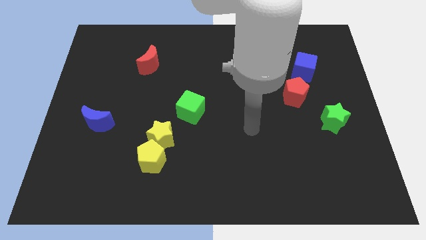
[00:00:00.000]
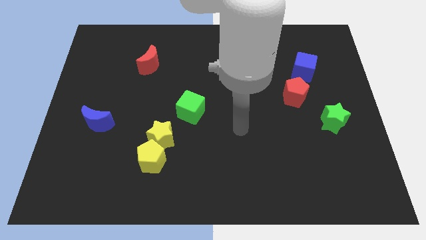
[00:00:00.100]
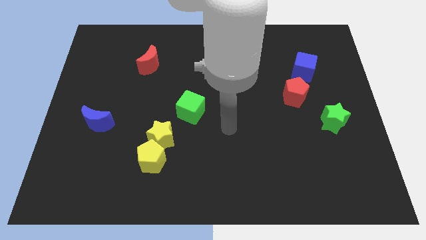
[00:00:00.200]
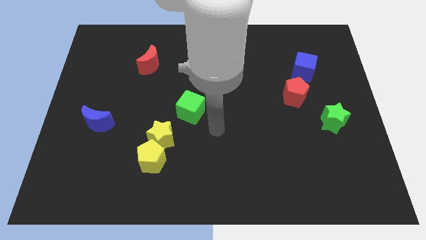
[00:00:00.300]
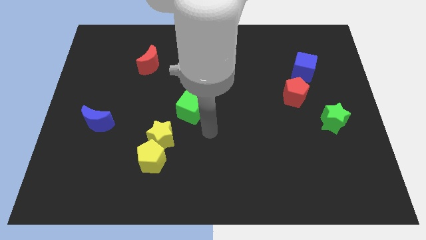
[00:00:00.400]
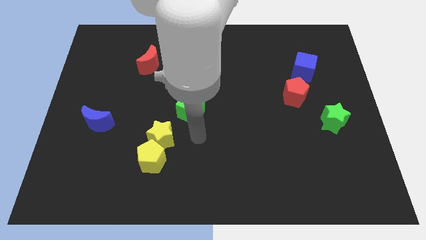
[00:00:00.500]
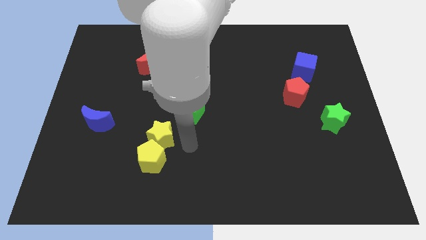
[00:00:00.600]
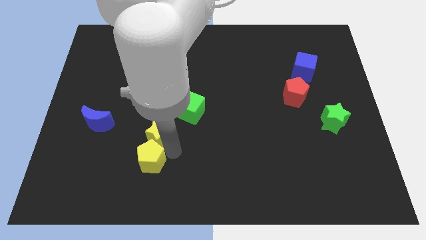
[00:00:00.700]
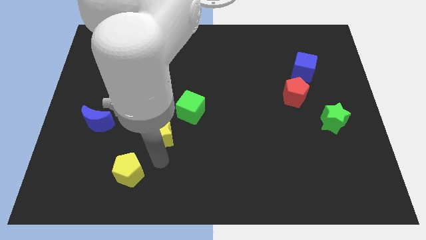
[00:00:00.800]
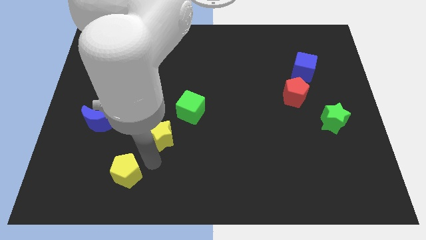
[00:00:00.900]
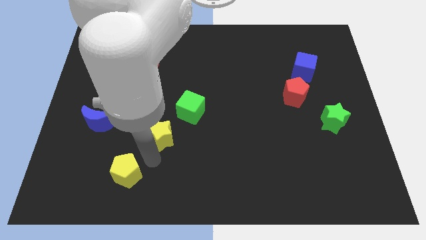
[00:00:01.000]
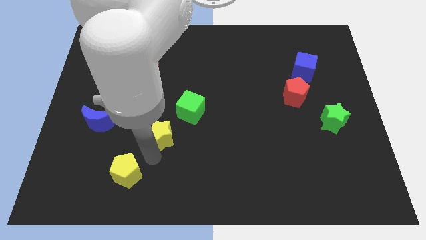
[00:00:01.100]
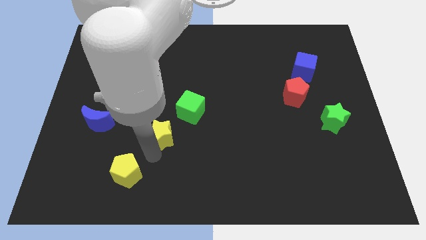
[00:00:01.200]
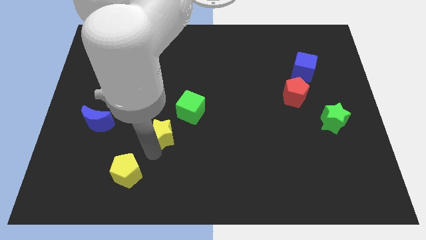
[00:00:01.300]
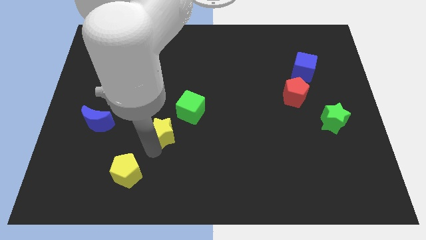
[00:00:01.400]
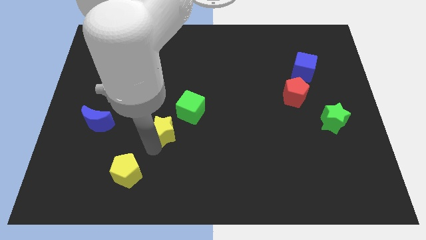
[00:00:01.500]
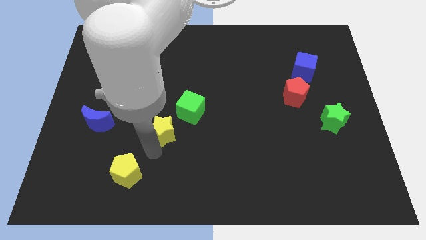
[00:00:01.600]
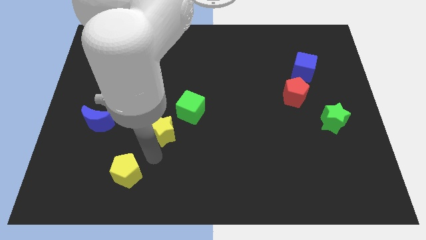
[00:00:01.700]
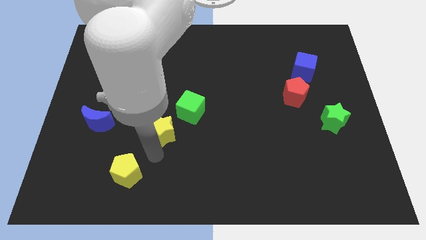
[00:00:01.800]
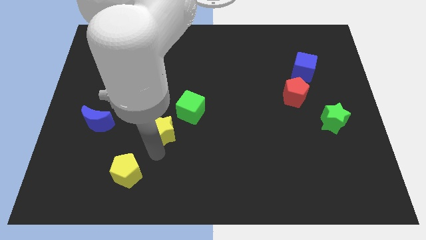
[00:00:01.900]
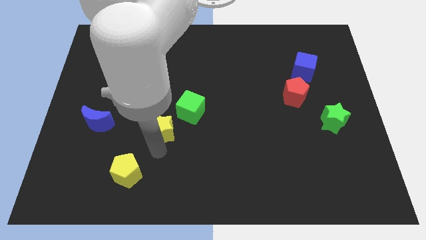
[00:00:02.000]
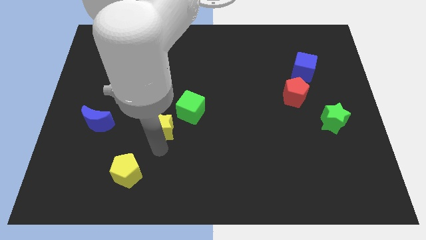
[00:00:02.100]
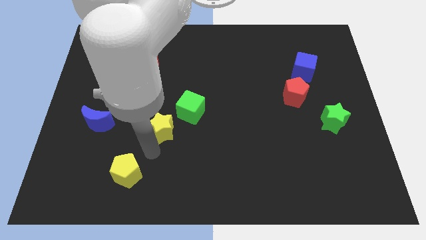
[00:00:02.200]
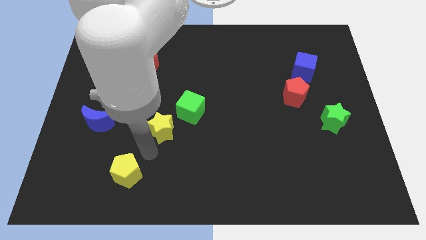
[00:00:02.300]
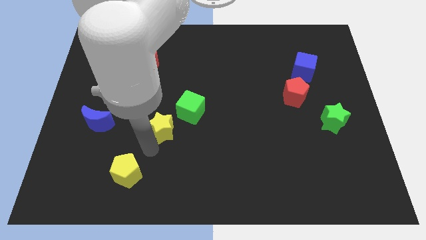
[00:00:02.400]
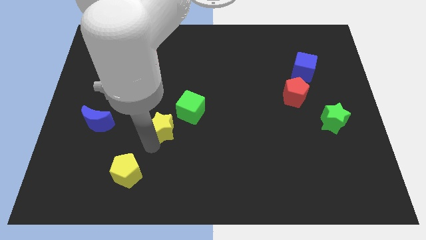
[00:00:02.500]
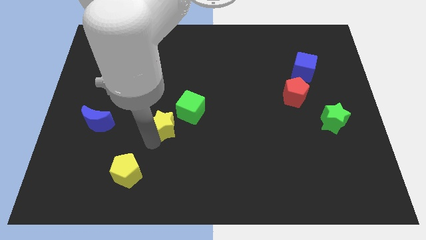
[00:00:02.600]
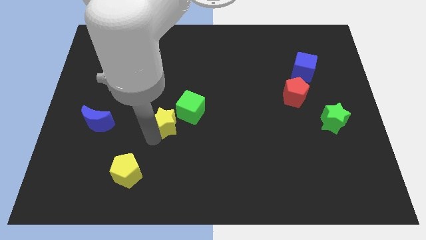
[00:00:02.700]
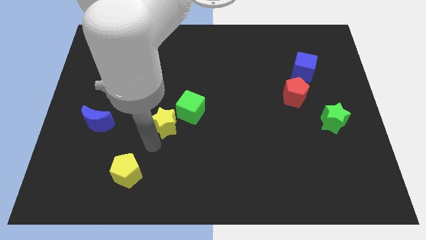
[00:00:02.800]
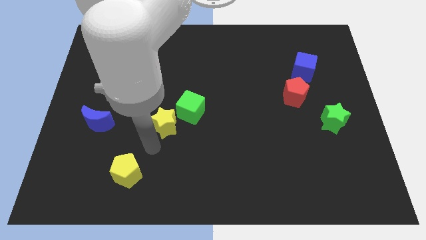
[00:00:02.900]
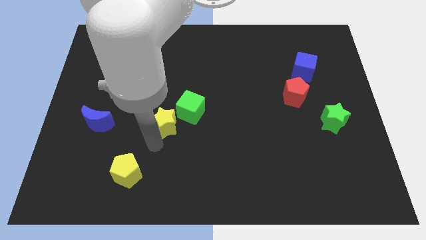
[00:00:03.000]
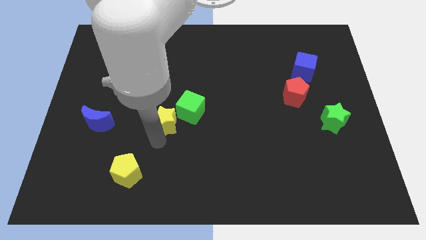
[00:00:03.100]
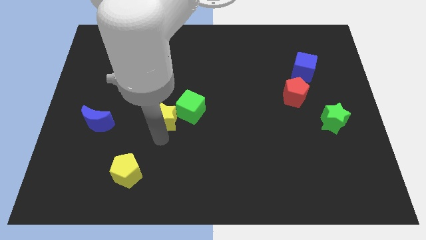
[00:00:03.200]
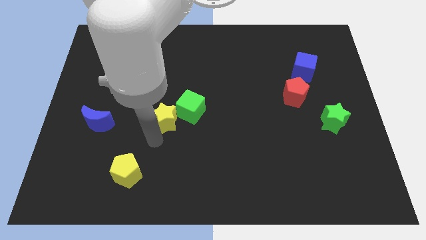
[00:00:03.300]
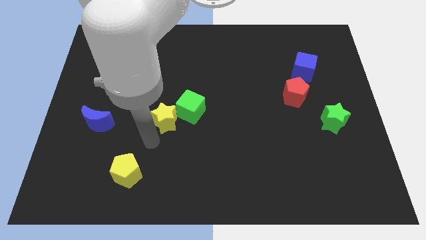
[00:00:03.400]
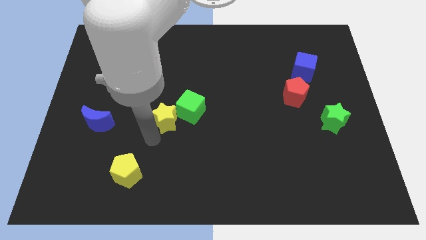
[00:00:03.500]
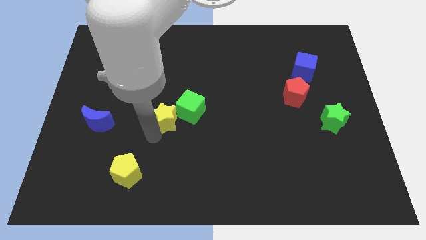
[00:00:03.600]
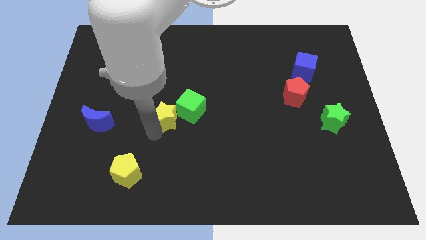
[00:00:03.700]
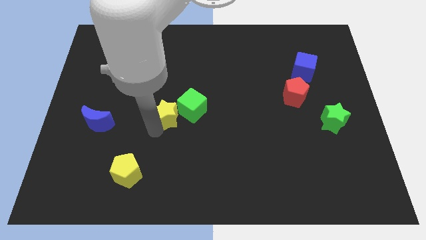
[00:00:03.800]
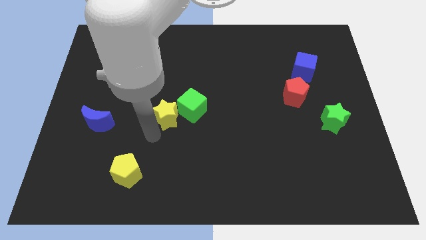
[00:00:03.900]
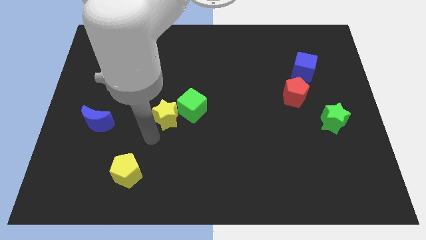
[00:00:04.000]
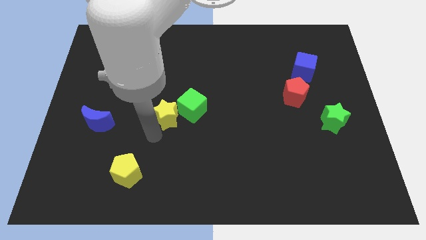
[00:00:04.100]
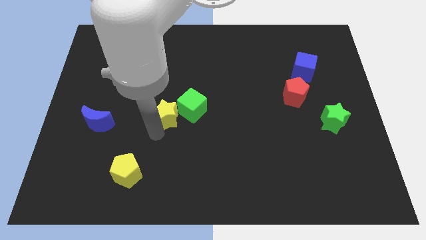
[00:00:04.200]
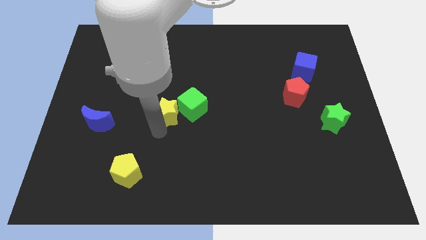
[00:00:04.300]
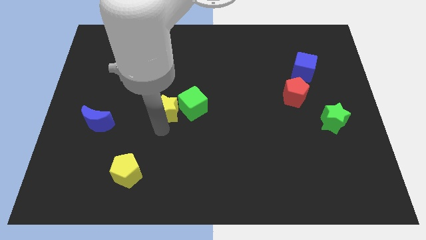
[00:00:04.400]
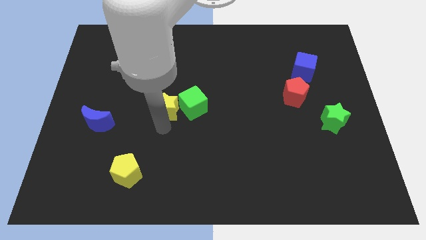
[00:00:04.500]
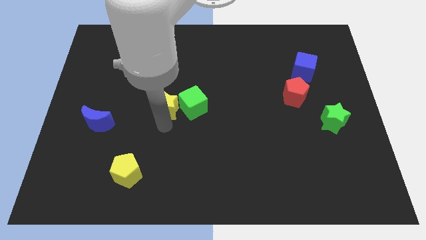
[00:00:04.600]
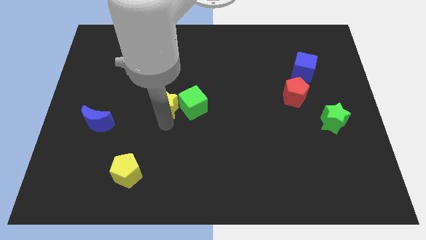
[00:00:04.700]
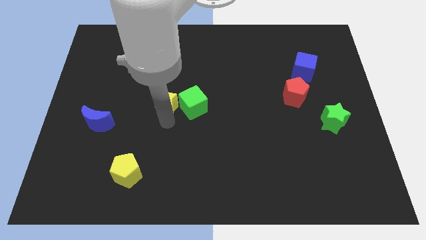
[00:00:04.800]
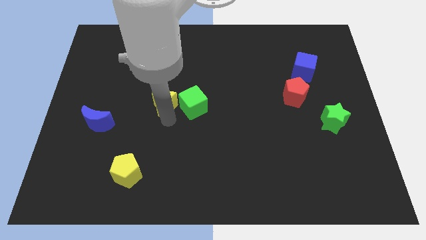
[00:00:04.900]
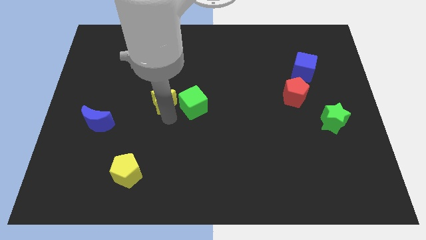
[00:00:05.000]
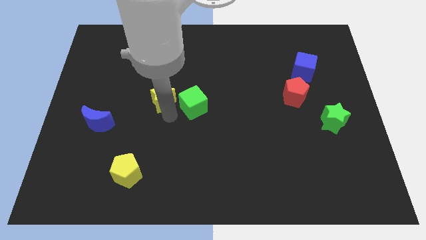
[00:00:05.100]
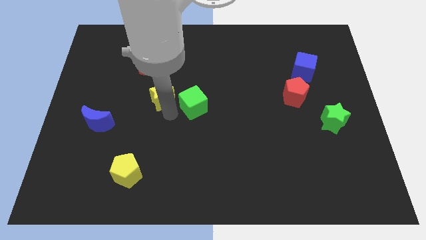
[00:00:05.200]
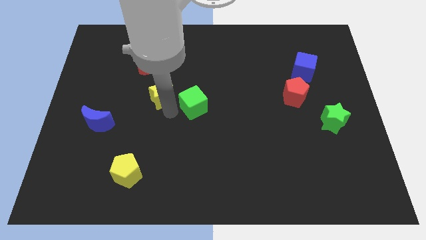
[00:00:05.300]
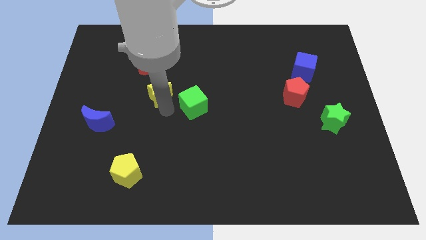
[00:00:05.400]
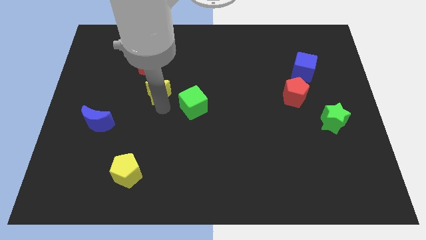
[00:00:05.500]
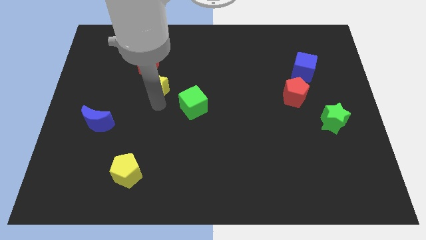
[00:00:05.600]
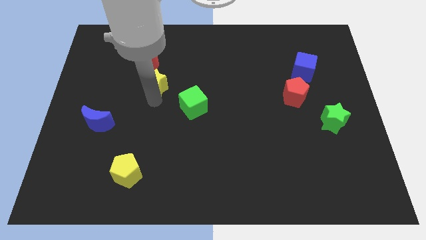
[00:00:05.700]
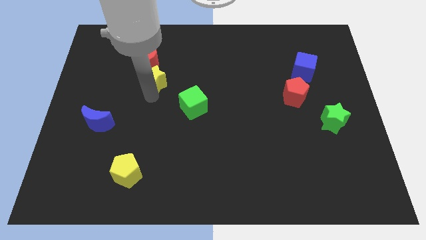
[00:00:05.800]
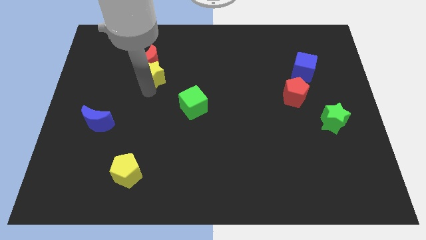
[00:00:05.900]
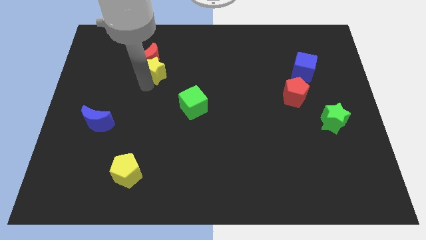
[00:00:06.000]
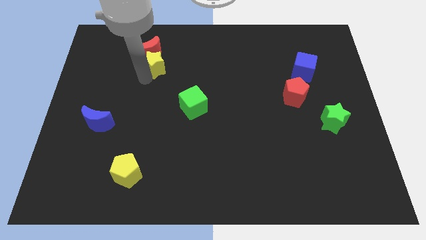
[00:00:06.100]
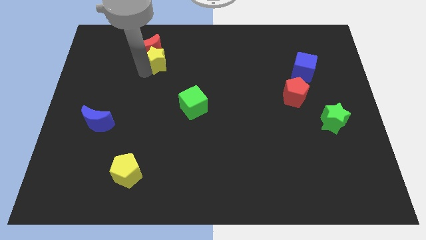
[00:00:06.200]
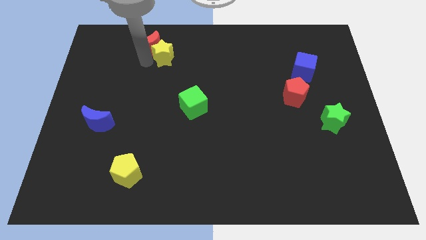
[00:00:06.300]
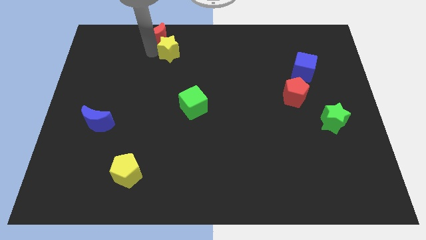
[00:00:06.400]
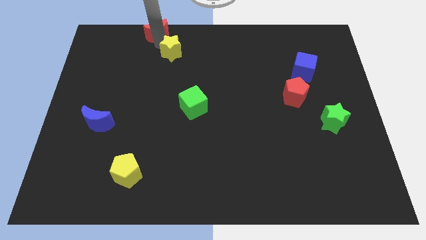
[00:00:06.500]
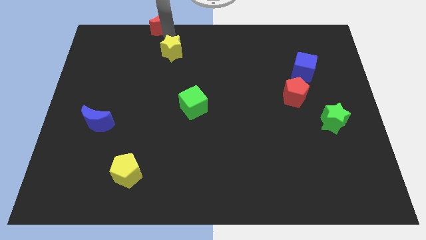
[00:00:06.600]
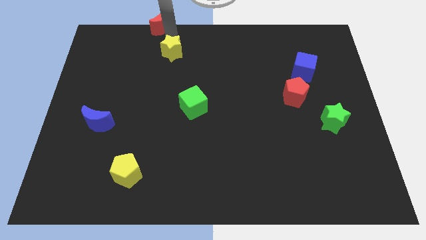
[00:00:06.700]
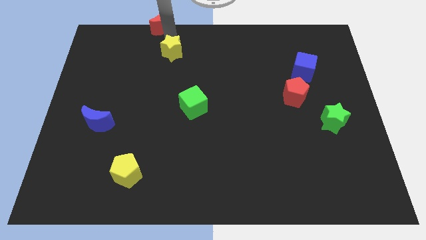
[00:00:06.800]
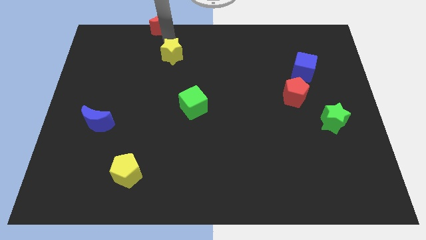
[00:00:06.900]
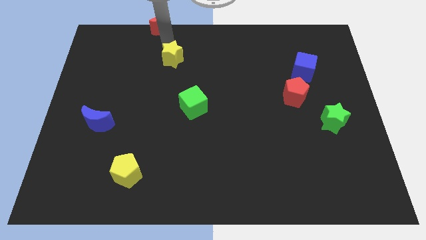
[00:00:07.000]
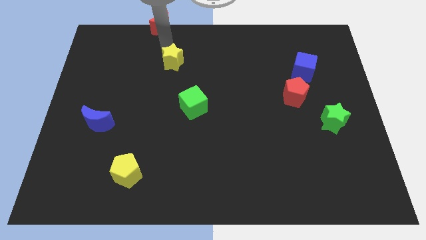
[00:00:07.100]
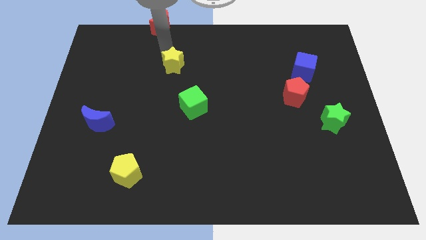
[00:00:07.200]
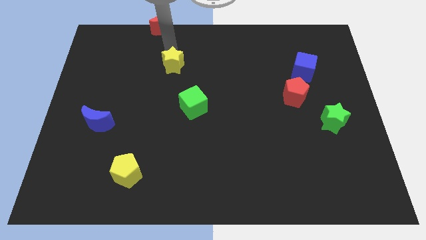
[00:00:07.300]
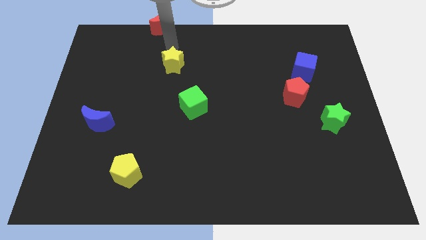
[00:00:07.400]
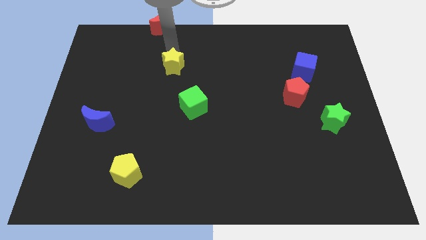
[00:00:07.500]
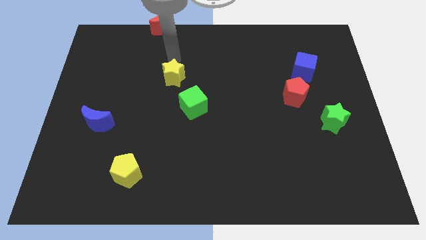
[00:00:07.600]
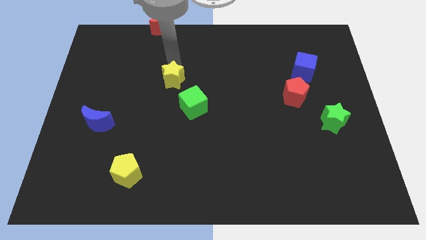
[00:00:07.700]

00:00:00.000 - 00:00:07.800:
move the yellow star up and then right somewhat
